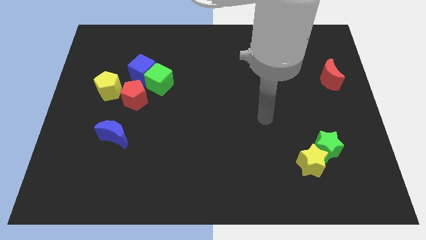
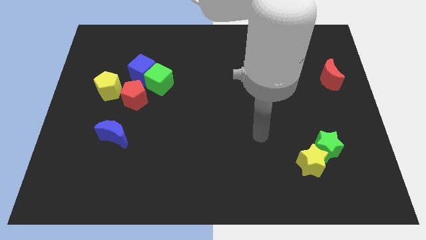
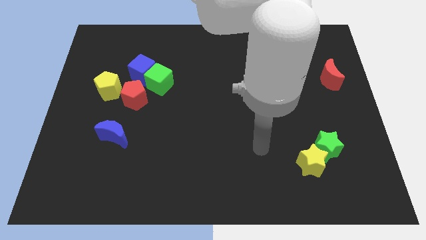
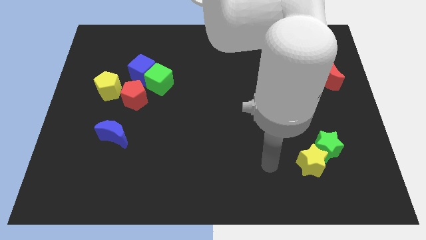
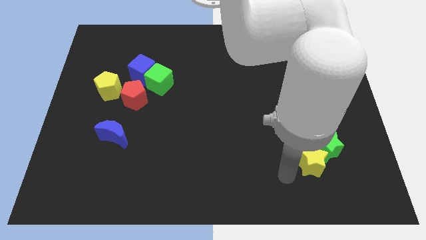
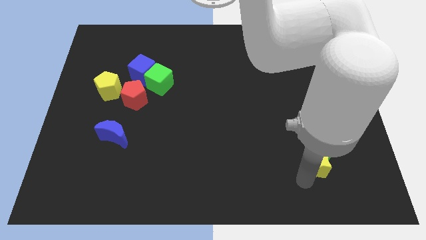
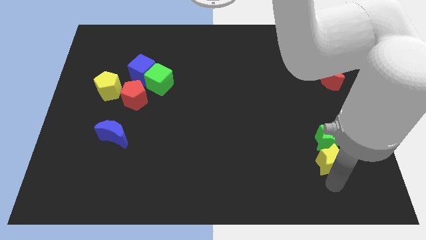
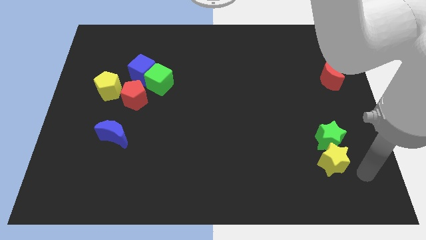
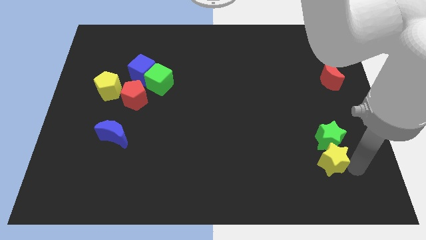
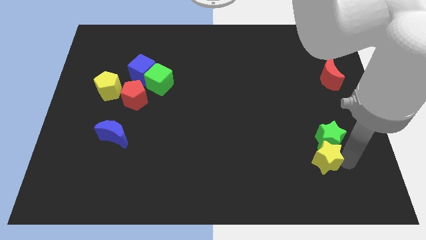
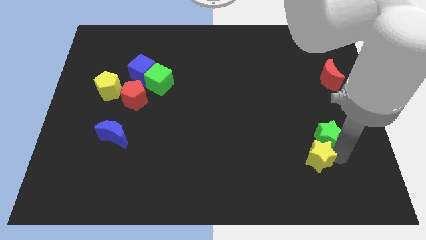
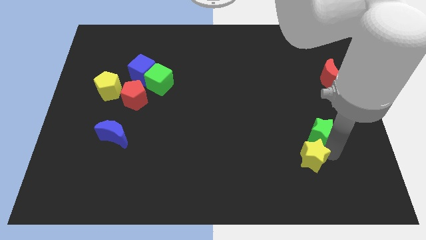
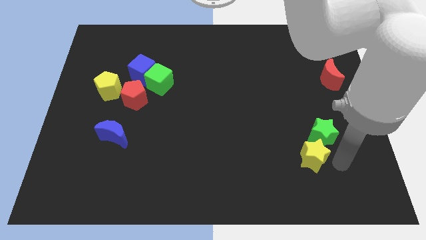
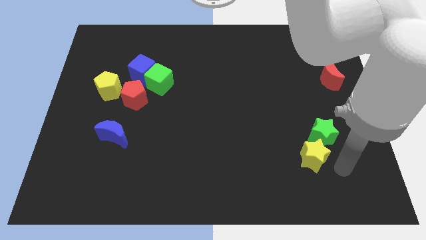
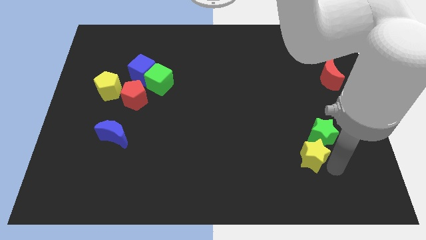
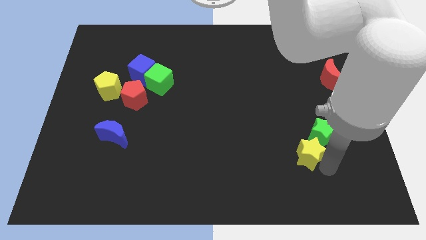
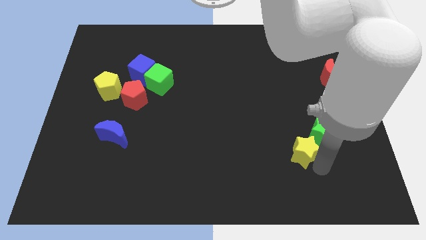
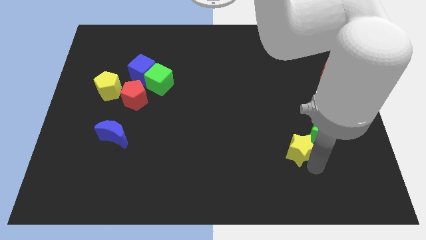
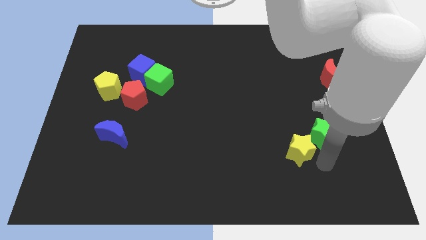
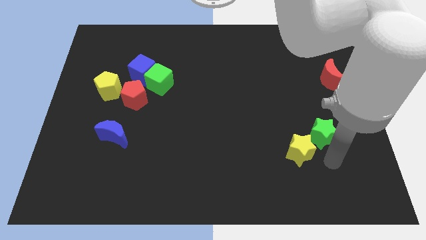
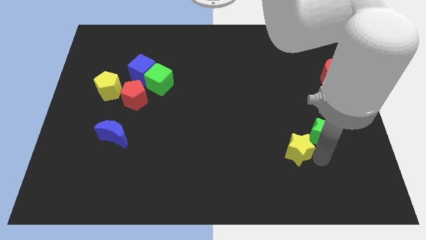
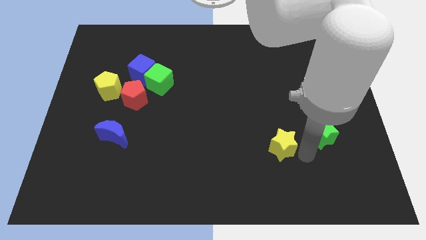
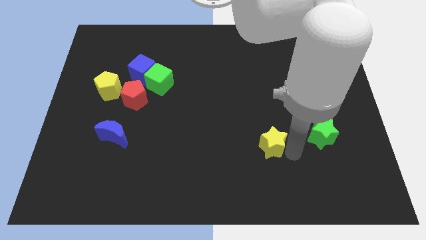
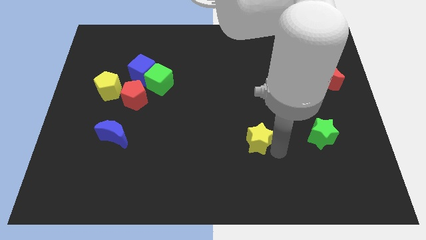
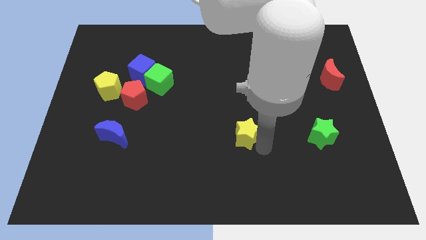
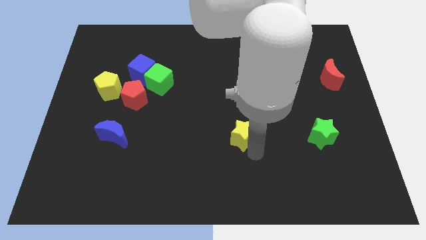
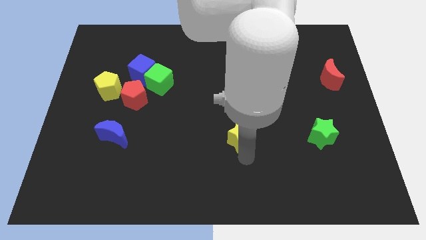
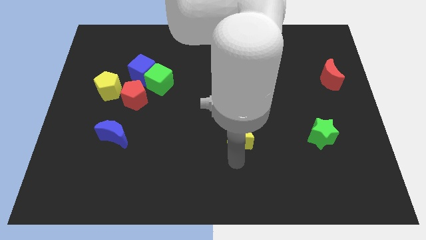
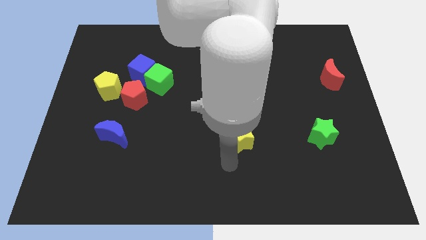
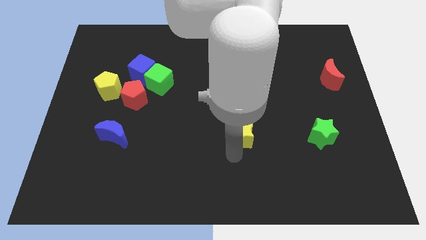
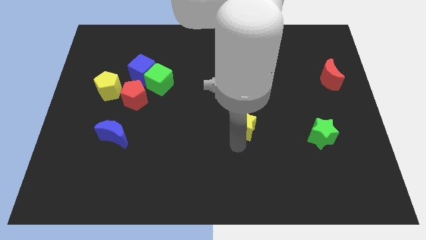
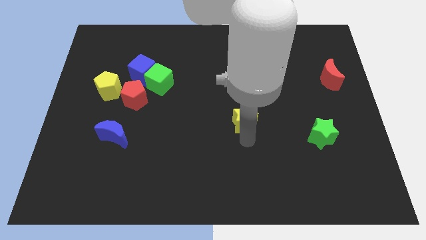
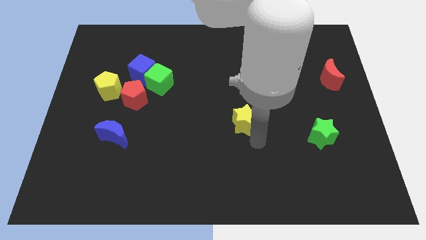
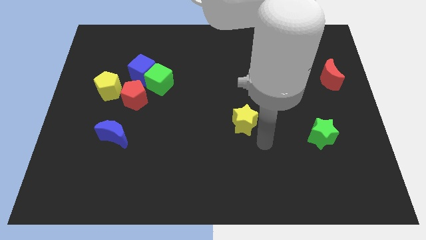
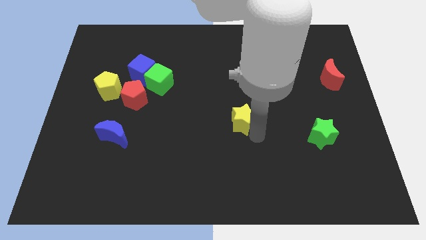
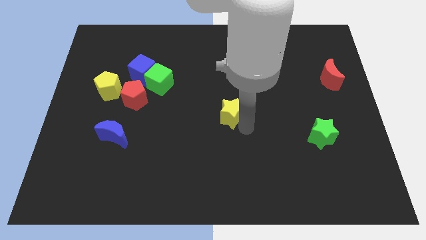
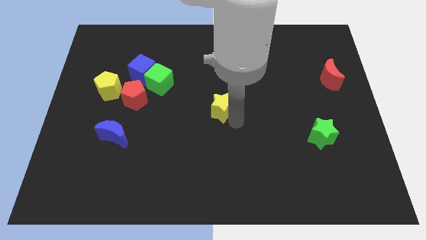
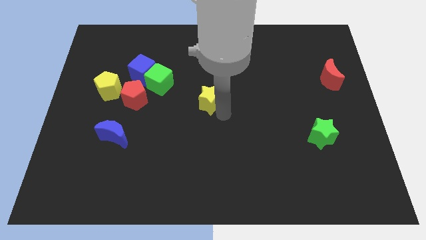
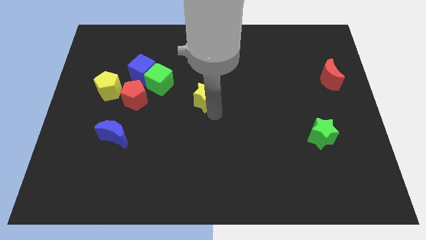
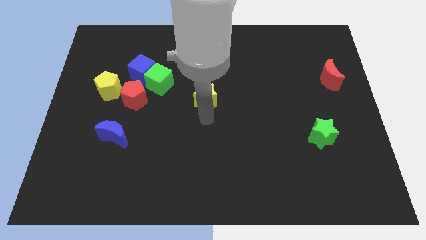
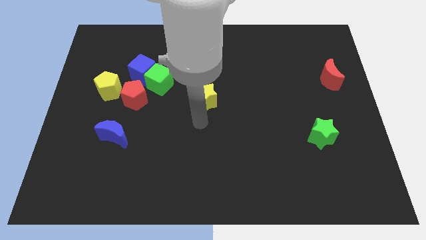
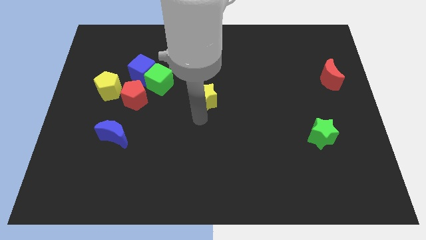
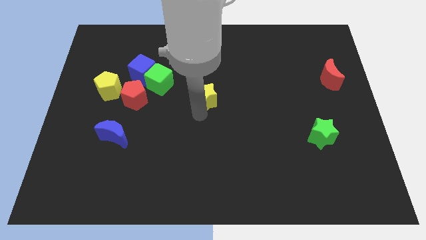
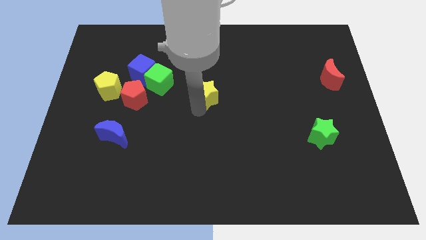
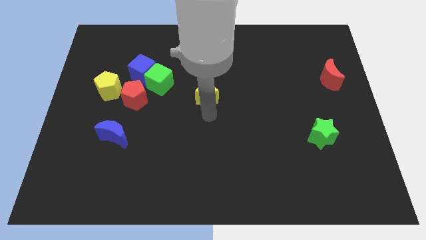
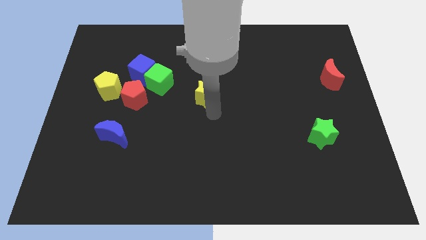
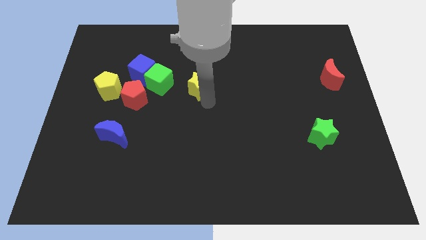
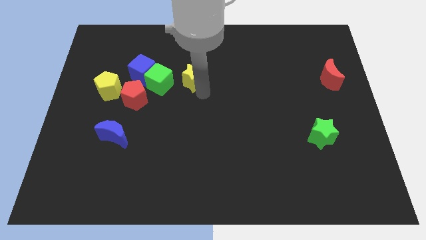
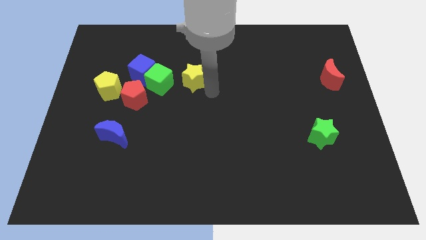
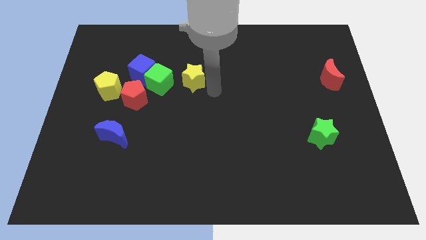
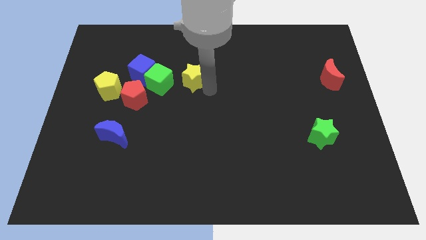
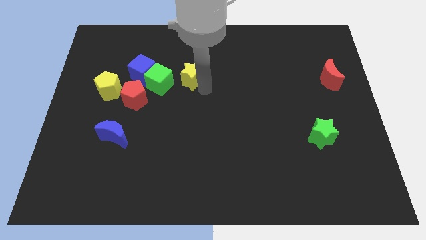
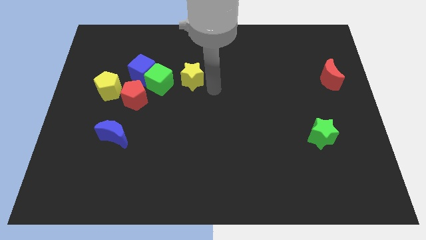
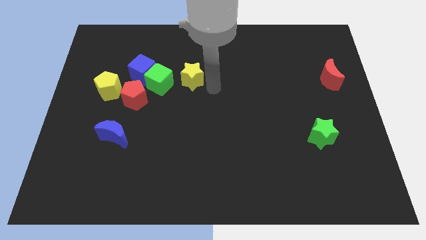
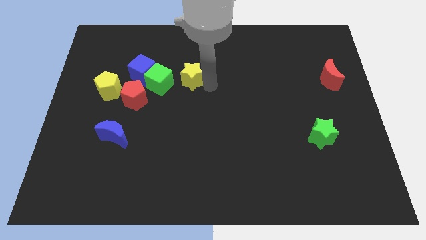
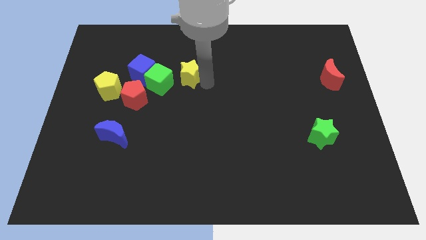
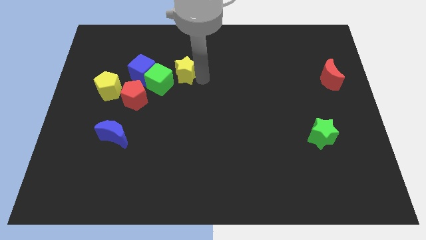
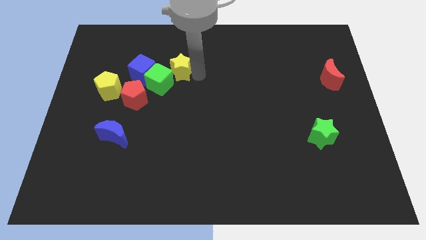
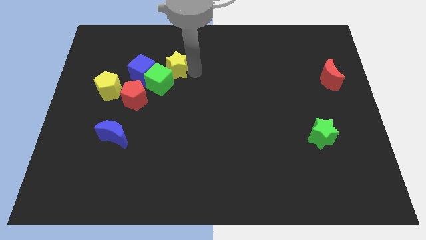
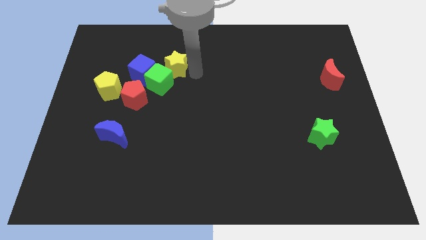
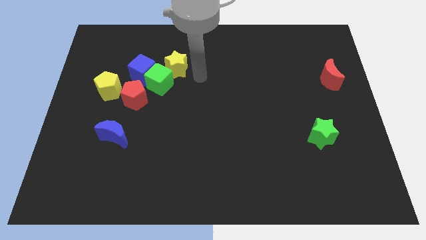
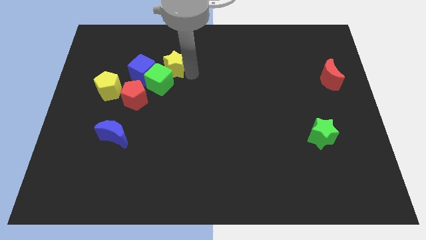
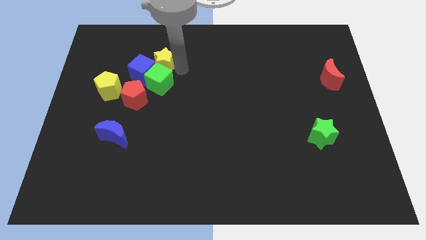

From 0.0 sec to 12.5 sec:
push the yellow star close to the blue cube
